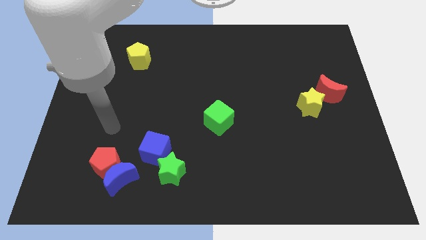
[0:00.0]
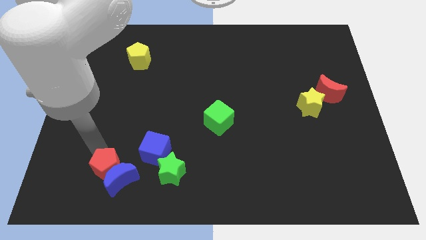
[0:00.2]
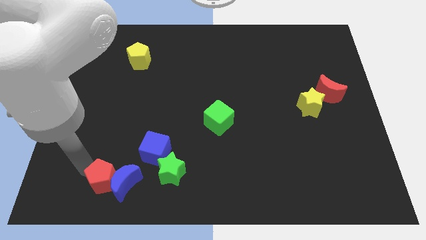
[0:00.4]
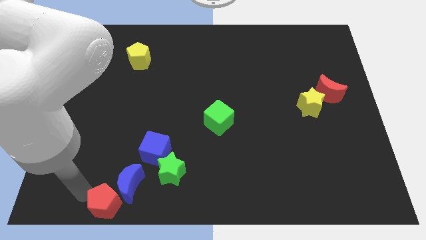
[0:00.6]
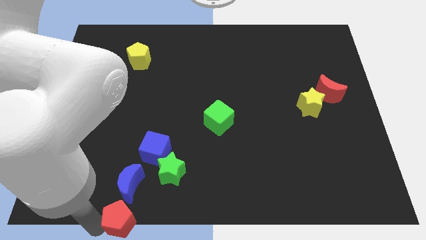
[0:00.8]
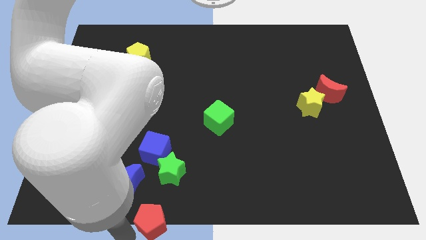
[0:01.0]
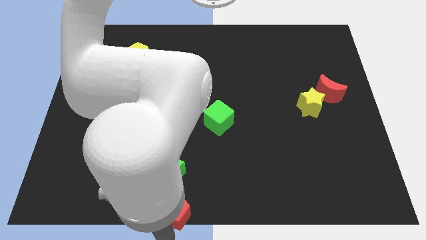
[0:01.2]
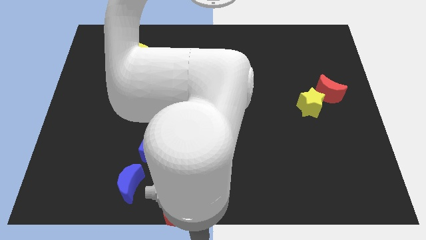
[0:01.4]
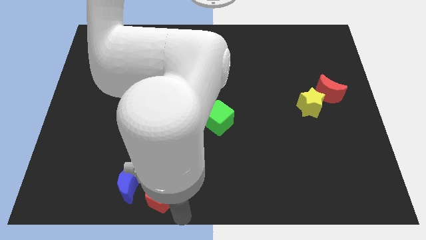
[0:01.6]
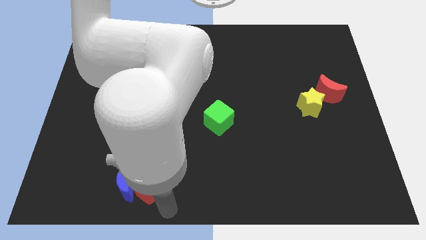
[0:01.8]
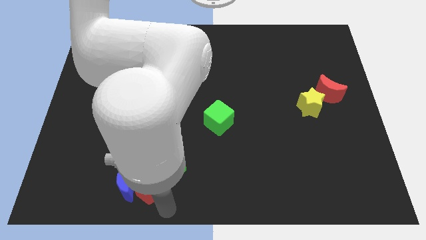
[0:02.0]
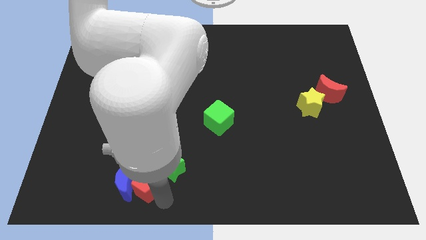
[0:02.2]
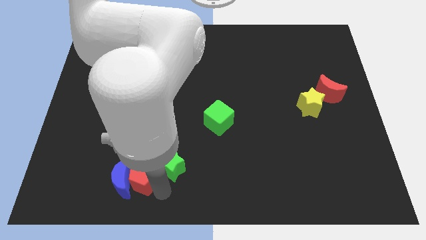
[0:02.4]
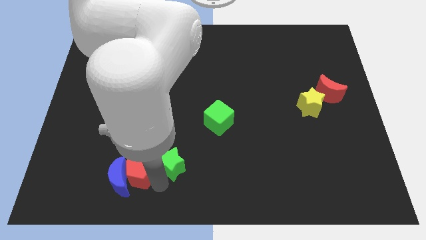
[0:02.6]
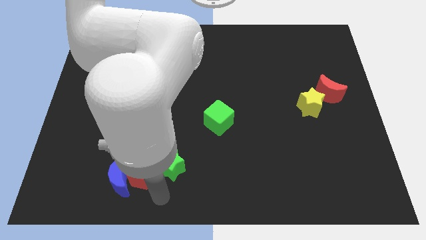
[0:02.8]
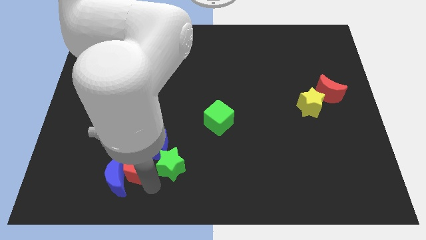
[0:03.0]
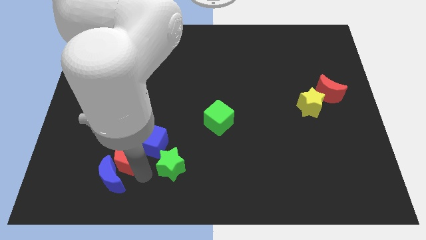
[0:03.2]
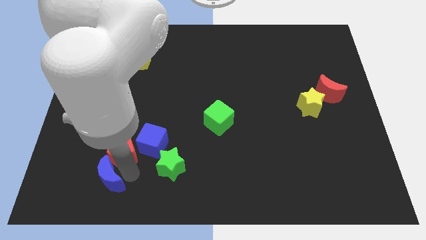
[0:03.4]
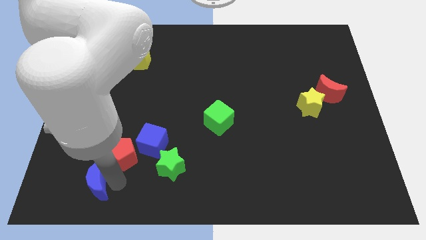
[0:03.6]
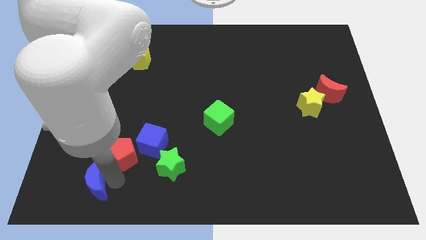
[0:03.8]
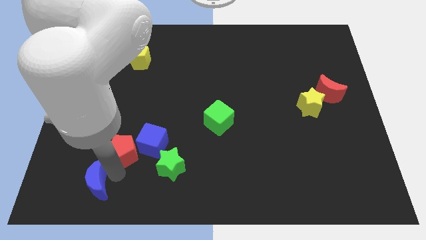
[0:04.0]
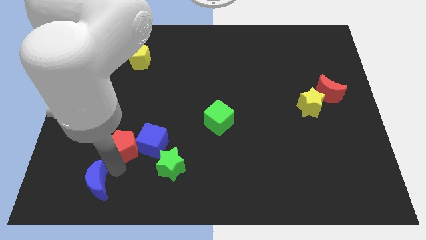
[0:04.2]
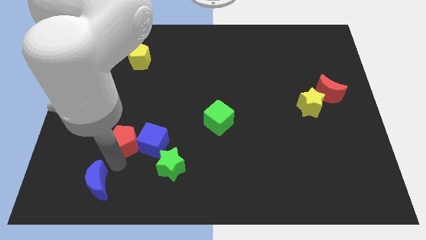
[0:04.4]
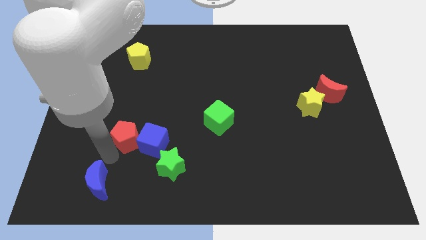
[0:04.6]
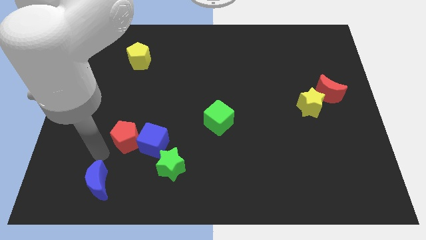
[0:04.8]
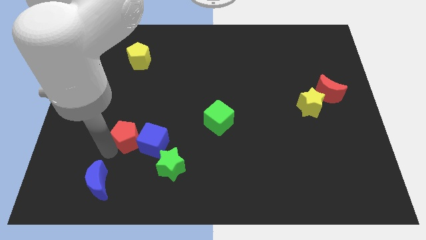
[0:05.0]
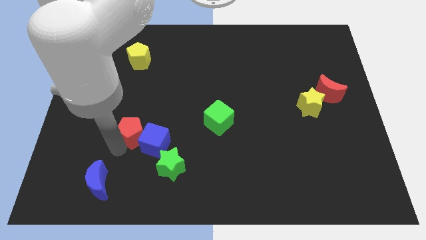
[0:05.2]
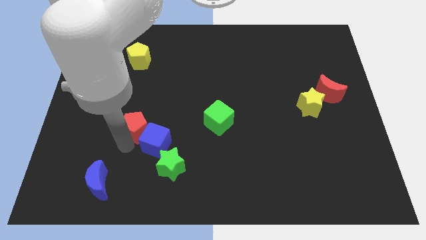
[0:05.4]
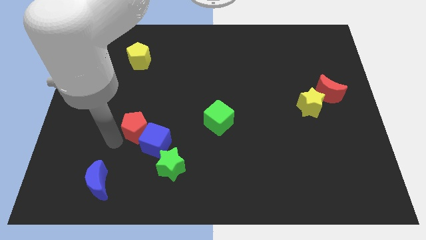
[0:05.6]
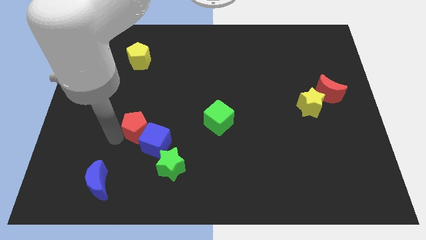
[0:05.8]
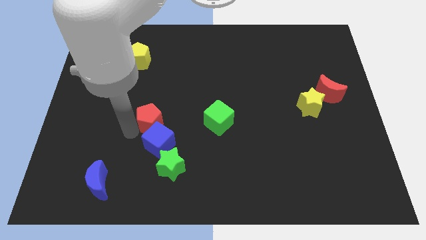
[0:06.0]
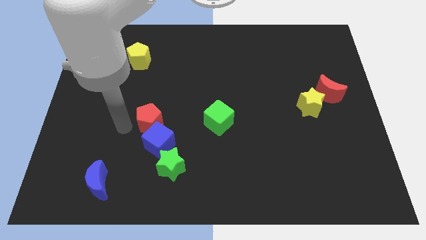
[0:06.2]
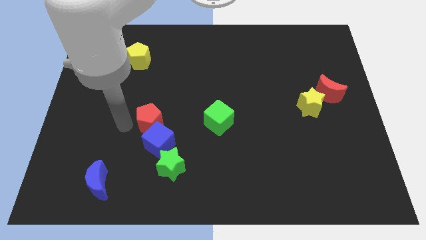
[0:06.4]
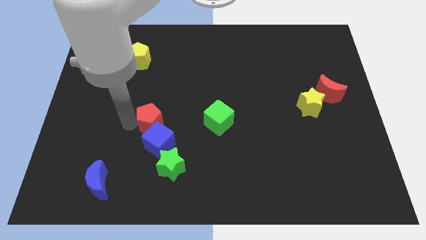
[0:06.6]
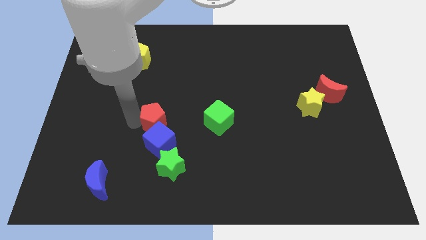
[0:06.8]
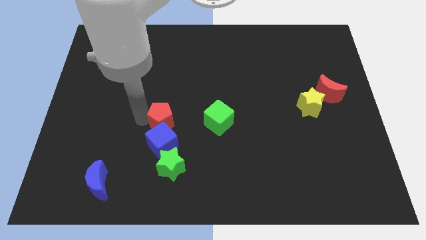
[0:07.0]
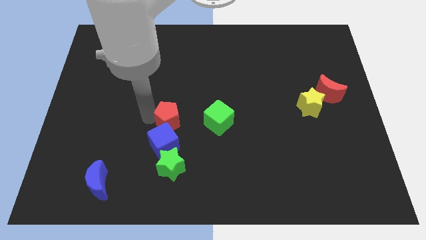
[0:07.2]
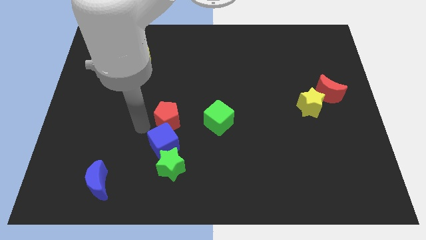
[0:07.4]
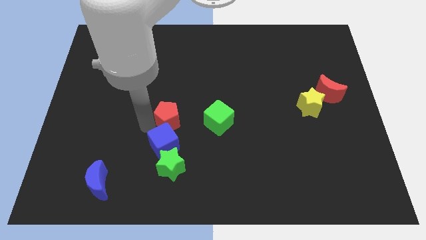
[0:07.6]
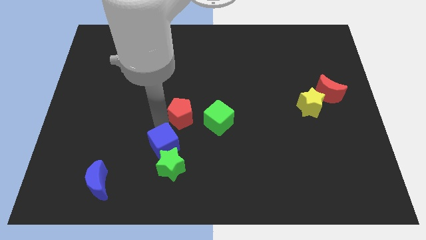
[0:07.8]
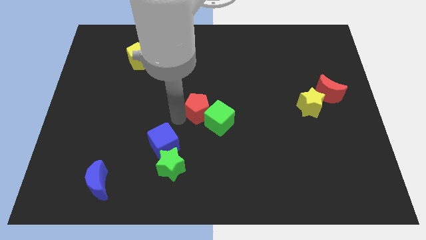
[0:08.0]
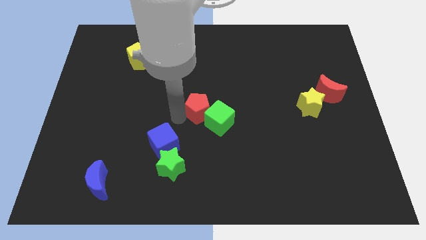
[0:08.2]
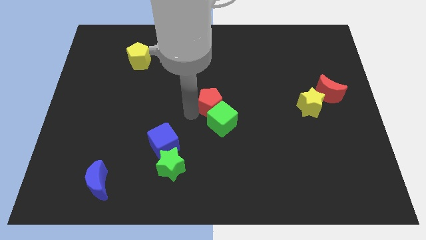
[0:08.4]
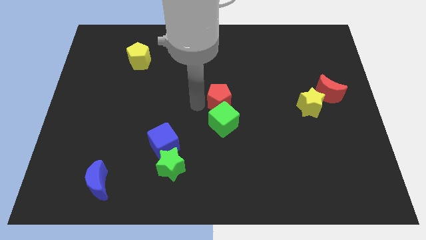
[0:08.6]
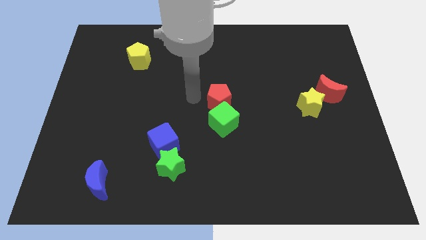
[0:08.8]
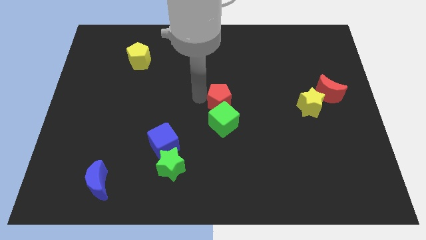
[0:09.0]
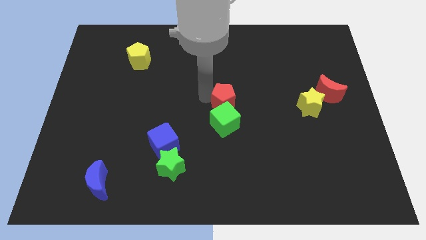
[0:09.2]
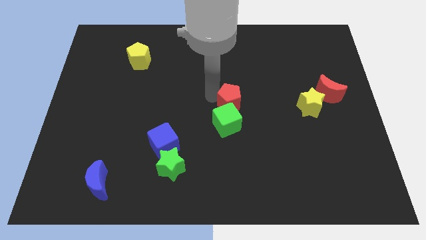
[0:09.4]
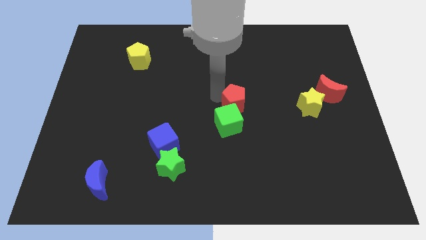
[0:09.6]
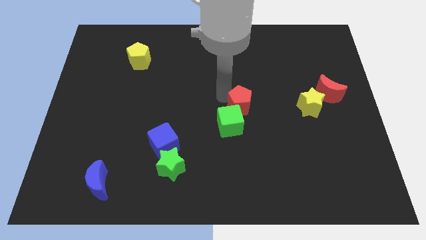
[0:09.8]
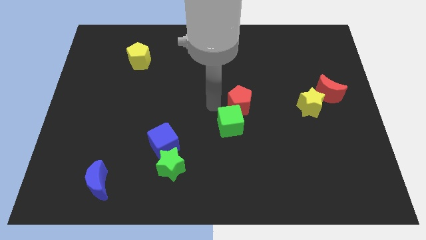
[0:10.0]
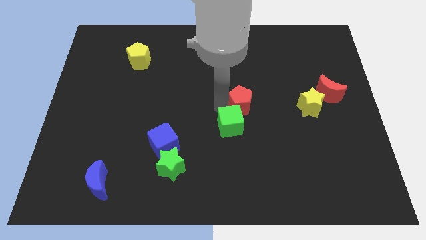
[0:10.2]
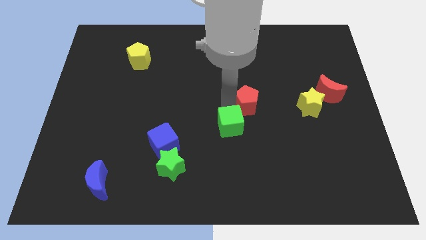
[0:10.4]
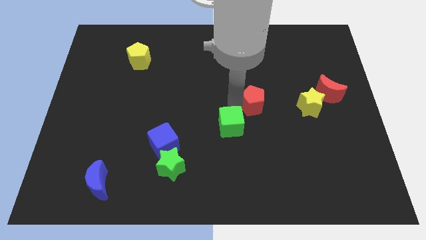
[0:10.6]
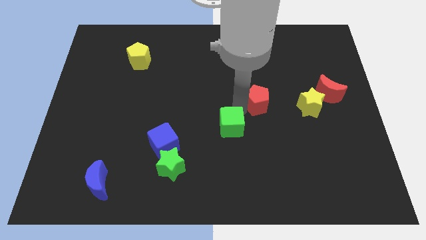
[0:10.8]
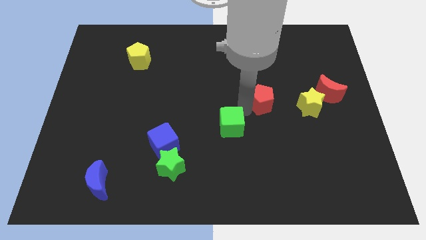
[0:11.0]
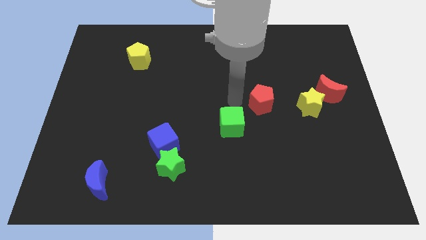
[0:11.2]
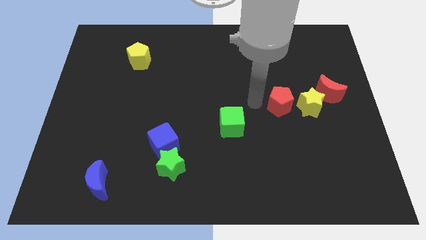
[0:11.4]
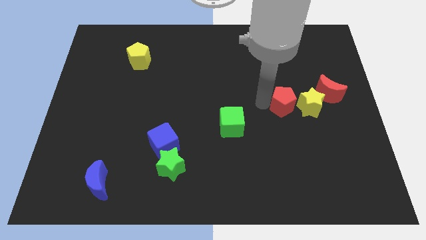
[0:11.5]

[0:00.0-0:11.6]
push the red pentagon towards the yellow star

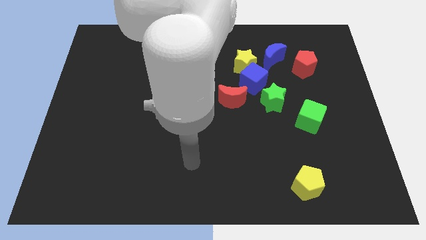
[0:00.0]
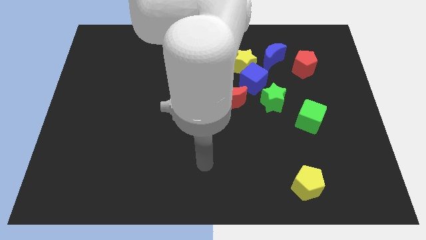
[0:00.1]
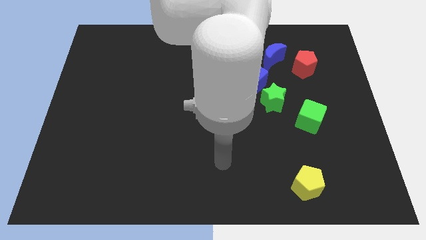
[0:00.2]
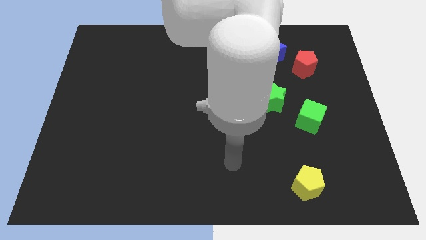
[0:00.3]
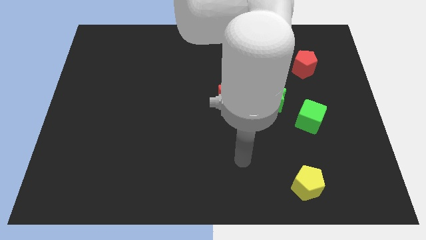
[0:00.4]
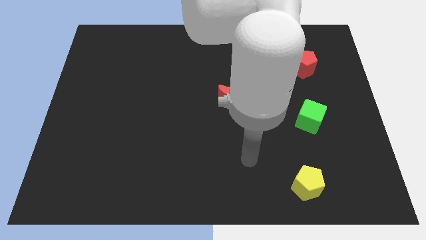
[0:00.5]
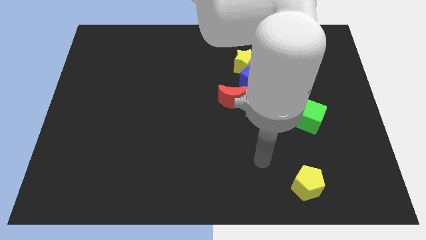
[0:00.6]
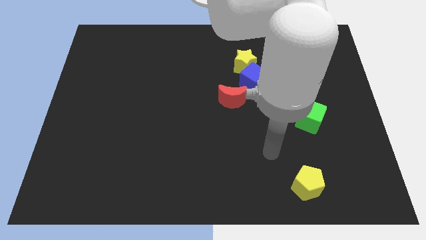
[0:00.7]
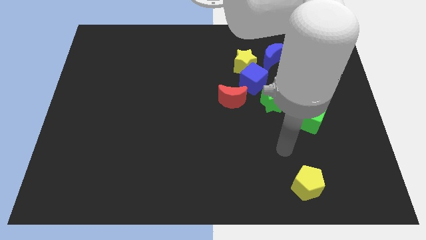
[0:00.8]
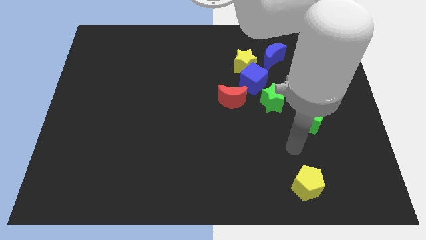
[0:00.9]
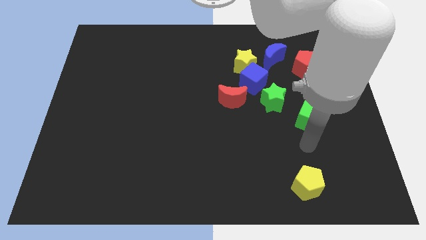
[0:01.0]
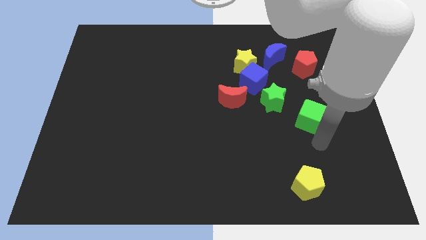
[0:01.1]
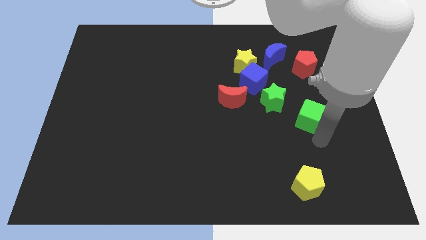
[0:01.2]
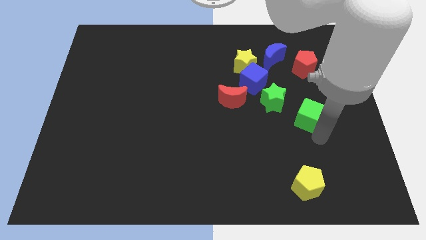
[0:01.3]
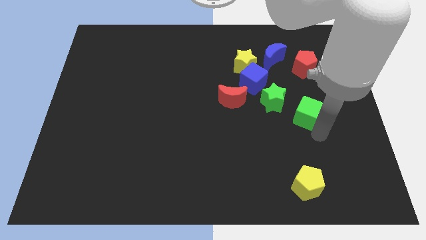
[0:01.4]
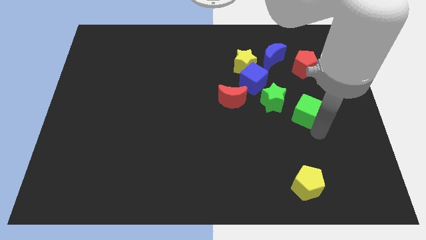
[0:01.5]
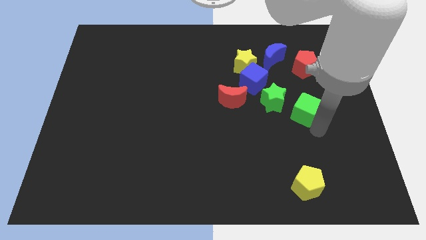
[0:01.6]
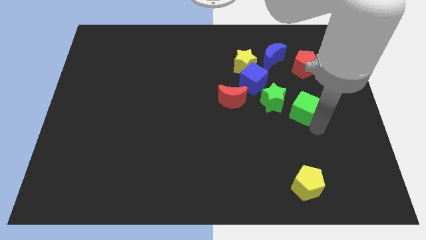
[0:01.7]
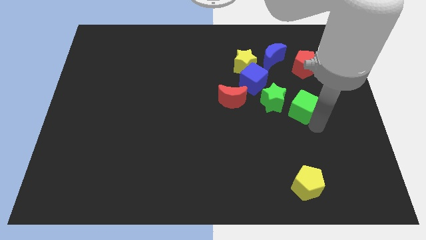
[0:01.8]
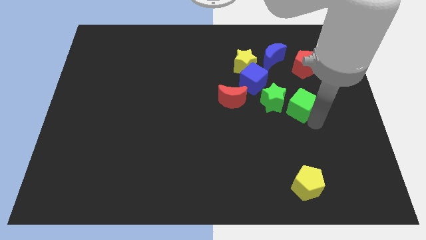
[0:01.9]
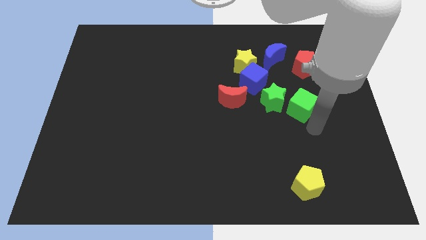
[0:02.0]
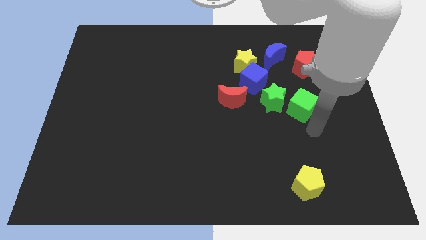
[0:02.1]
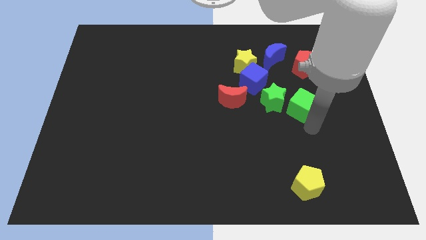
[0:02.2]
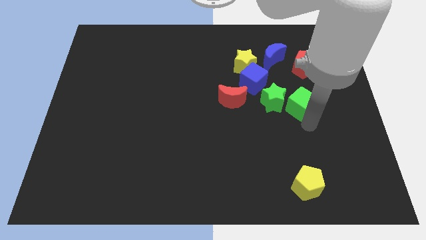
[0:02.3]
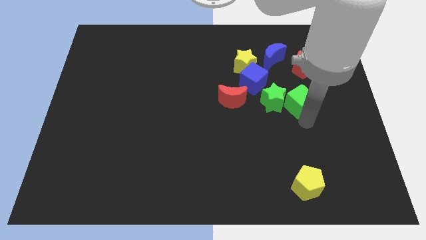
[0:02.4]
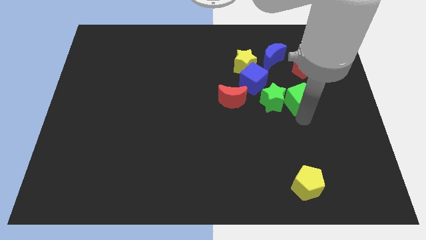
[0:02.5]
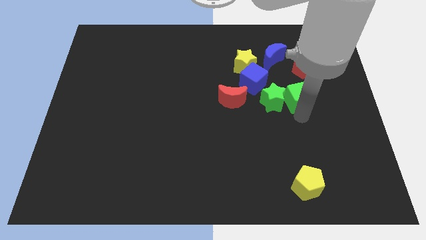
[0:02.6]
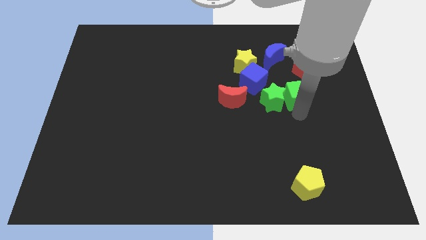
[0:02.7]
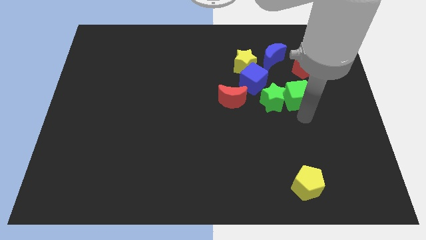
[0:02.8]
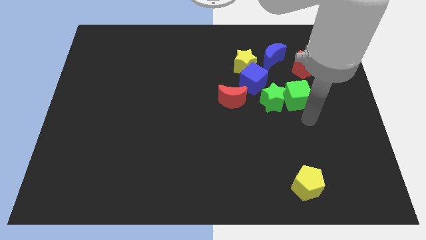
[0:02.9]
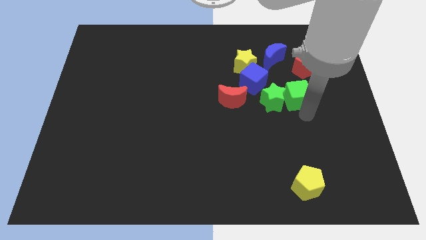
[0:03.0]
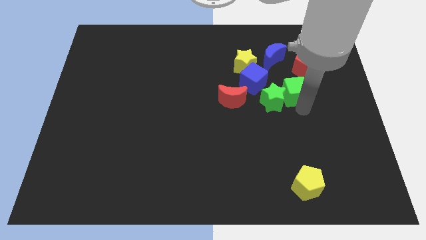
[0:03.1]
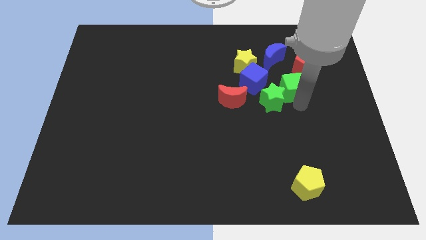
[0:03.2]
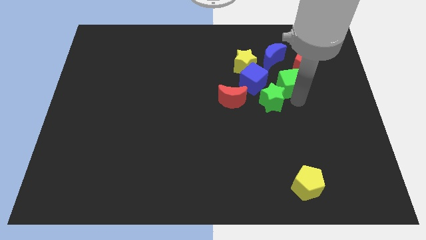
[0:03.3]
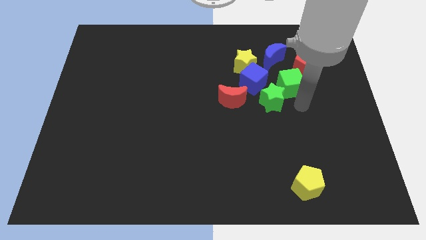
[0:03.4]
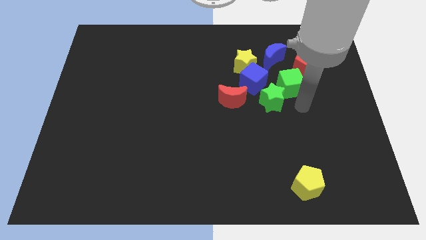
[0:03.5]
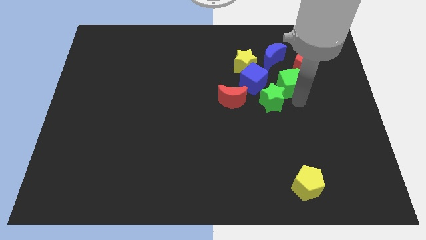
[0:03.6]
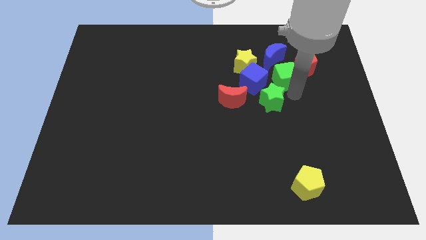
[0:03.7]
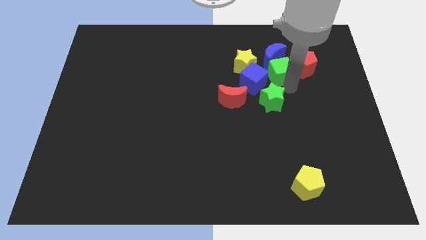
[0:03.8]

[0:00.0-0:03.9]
slide the green cube next to the blue moon
